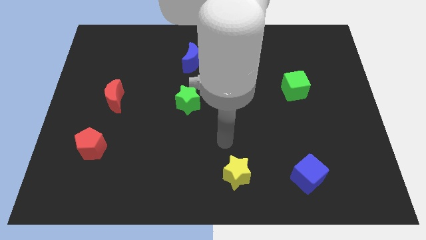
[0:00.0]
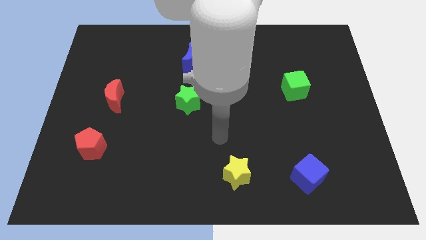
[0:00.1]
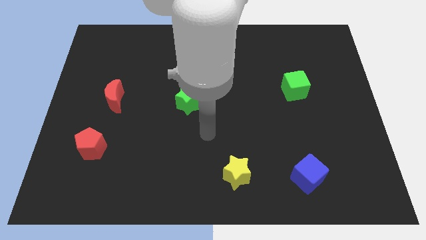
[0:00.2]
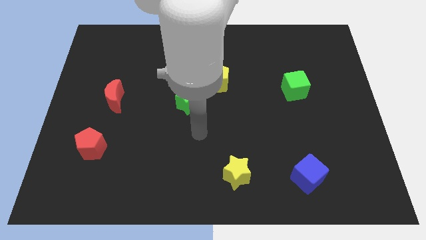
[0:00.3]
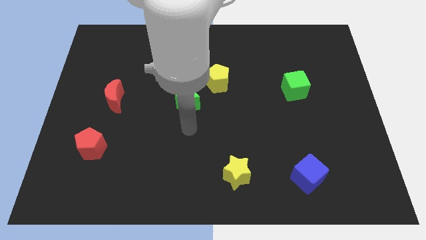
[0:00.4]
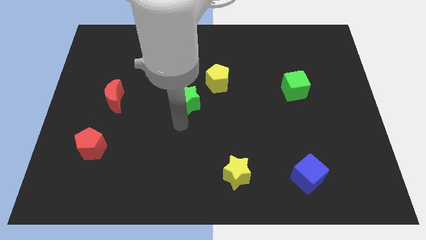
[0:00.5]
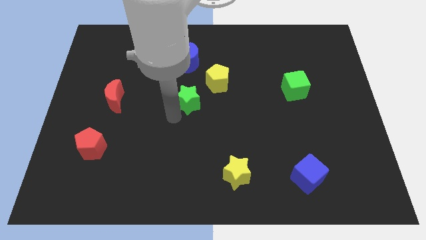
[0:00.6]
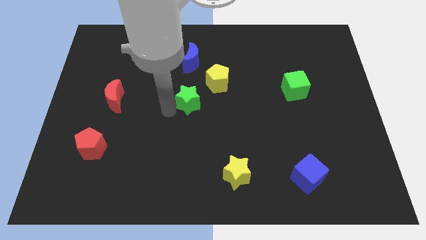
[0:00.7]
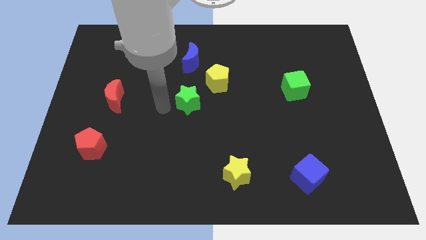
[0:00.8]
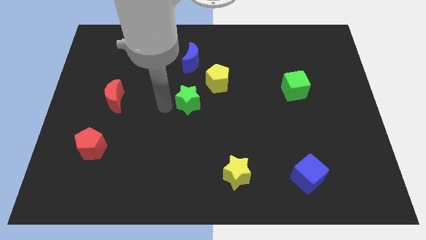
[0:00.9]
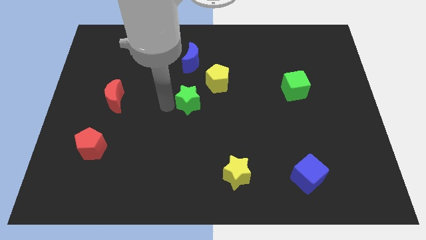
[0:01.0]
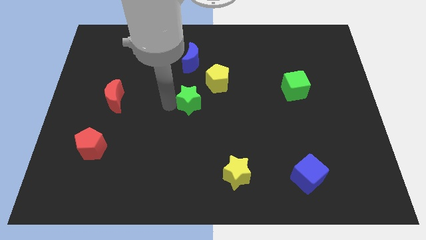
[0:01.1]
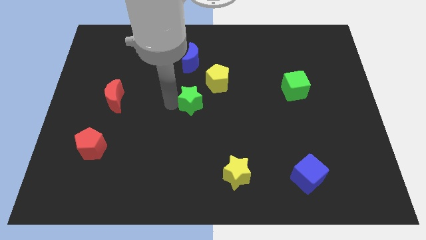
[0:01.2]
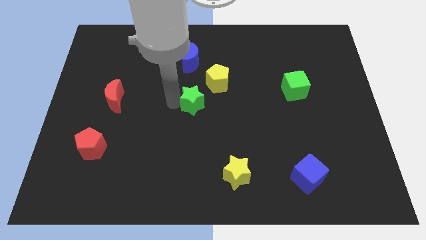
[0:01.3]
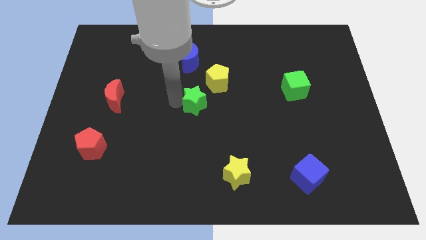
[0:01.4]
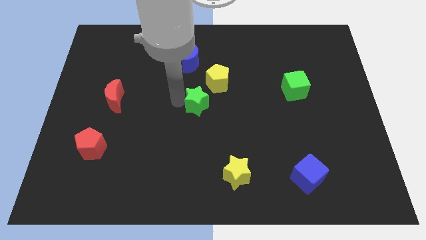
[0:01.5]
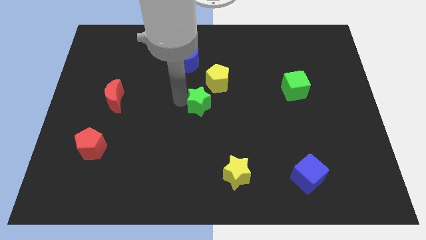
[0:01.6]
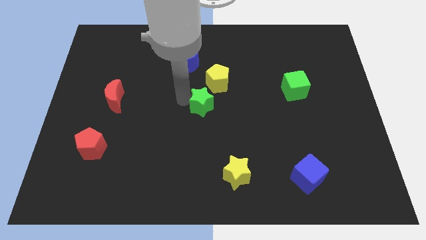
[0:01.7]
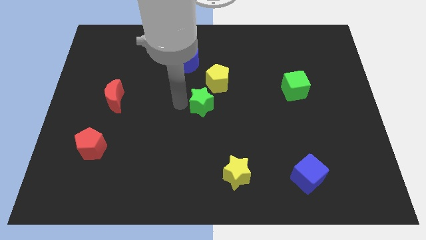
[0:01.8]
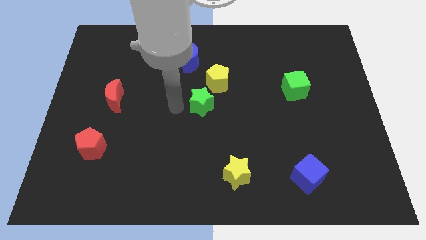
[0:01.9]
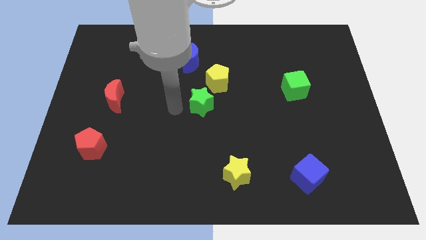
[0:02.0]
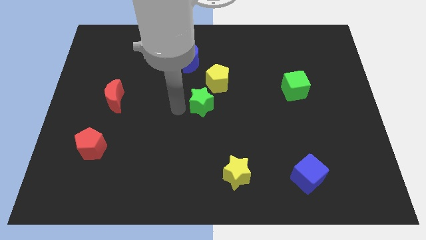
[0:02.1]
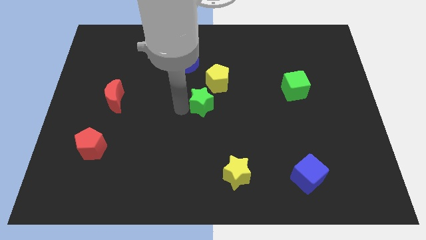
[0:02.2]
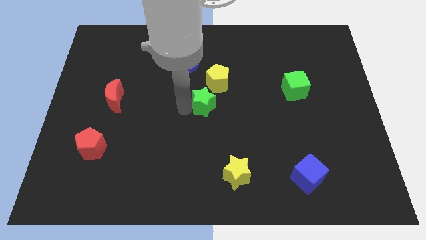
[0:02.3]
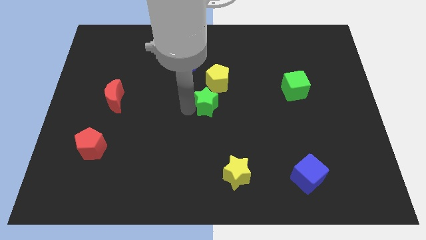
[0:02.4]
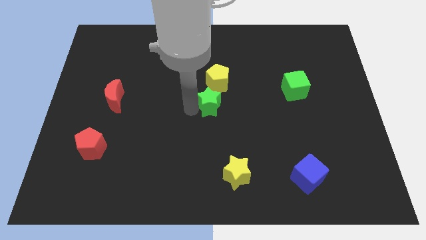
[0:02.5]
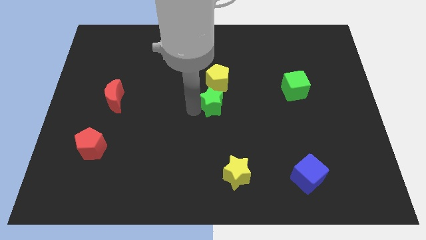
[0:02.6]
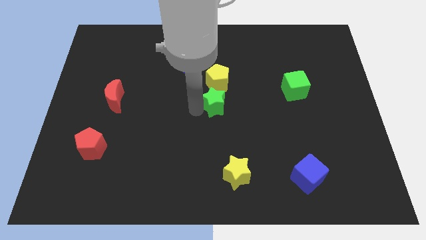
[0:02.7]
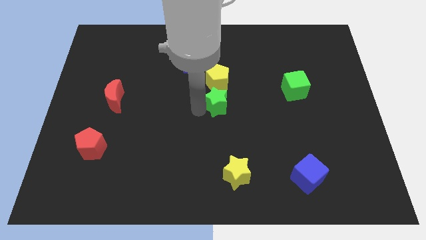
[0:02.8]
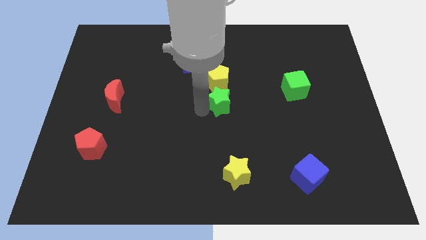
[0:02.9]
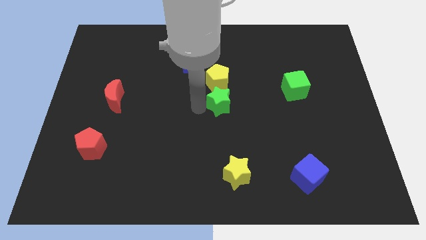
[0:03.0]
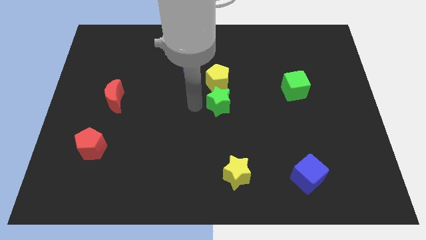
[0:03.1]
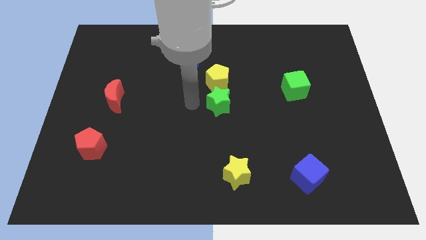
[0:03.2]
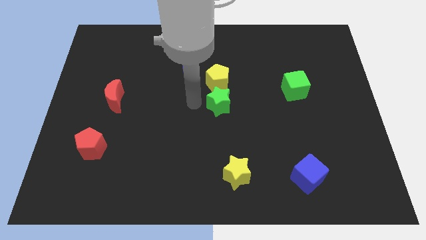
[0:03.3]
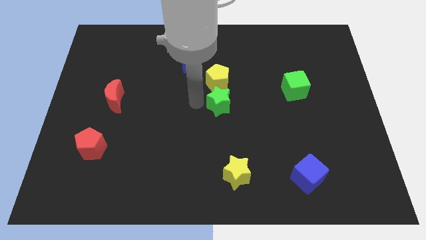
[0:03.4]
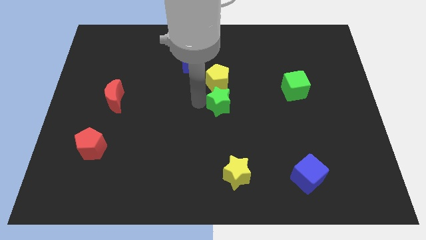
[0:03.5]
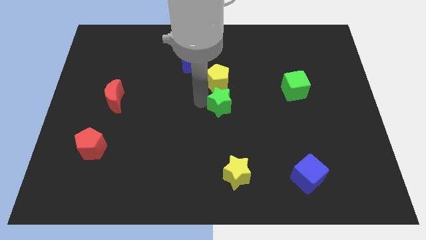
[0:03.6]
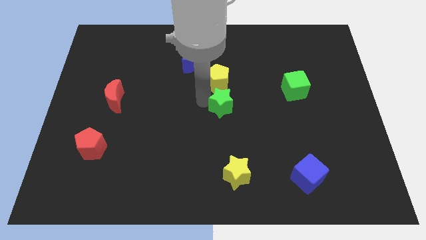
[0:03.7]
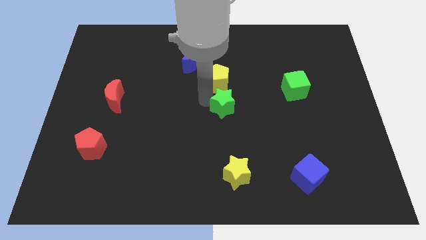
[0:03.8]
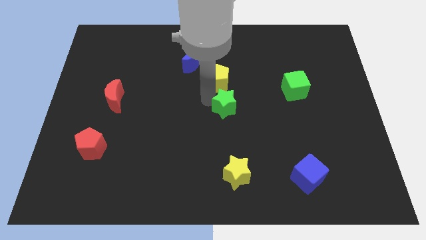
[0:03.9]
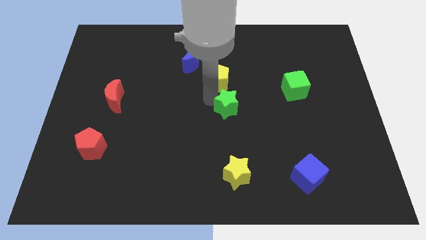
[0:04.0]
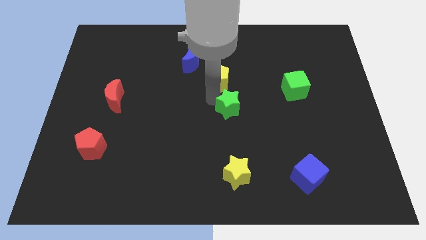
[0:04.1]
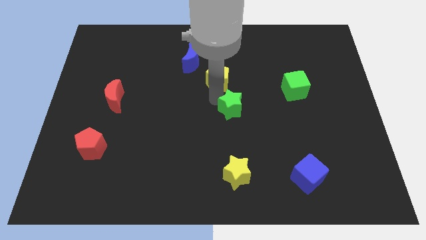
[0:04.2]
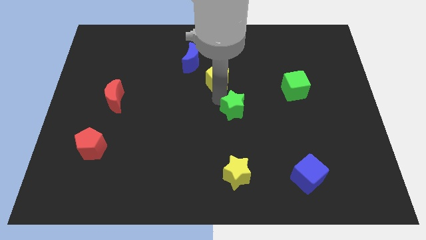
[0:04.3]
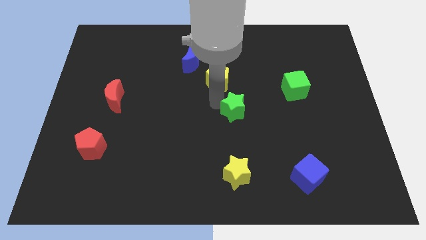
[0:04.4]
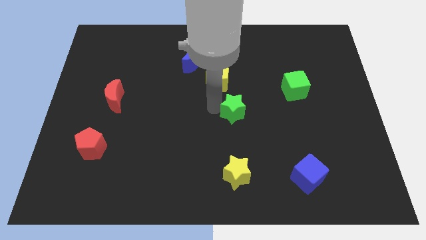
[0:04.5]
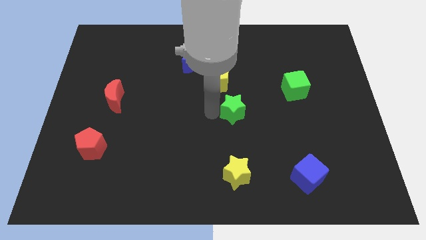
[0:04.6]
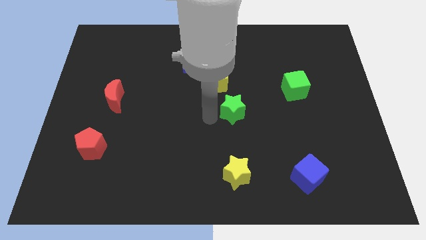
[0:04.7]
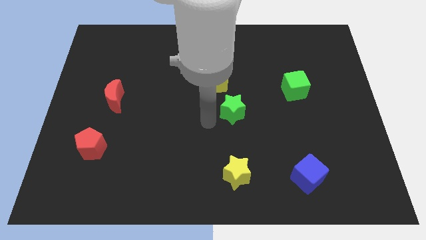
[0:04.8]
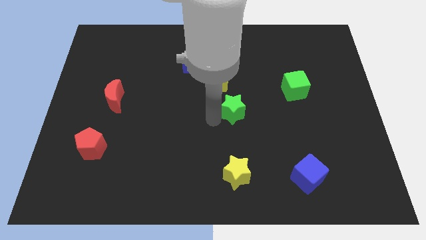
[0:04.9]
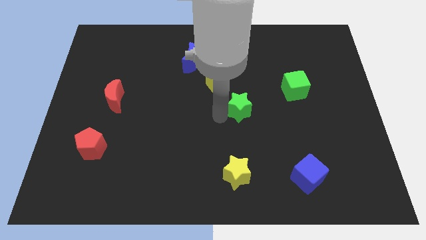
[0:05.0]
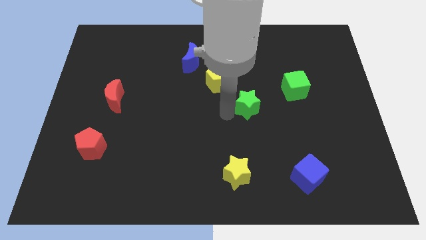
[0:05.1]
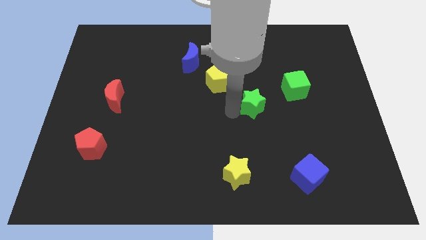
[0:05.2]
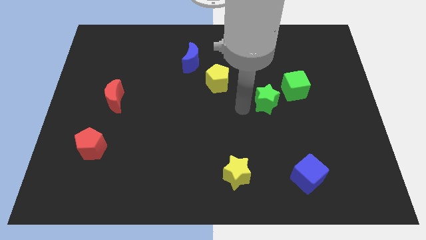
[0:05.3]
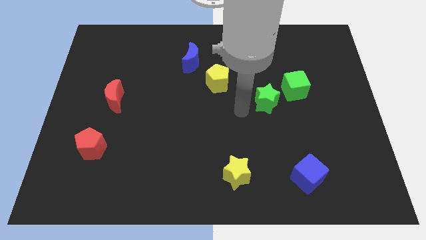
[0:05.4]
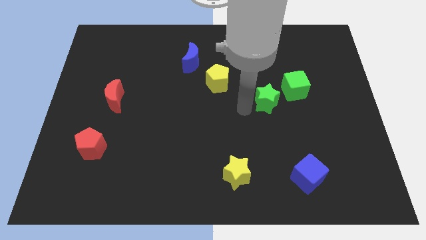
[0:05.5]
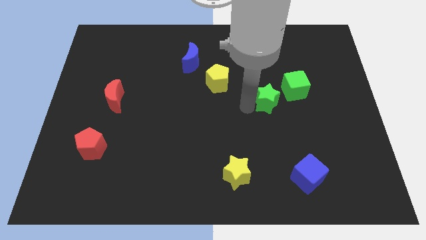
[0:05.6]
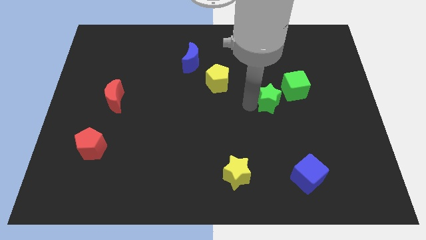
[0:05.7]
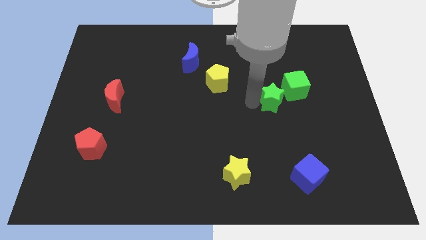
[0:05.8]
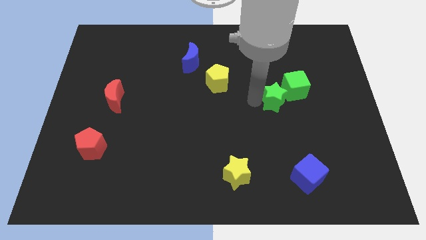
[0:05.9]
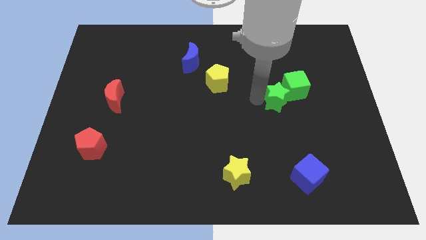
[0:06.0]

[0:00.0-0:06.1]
push the green star close to the green cube

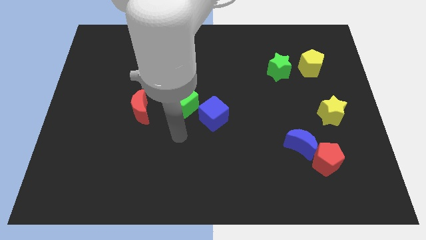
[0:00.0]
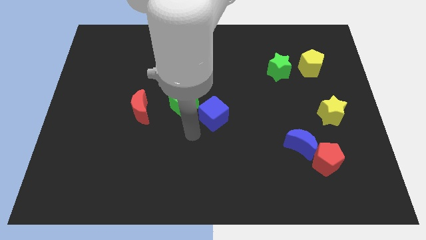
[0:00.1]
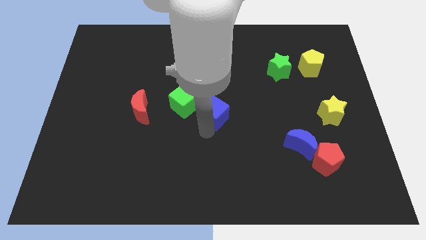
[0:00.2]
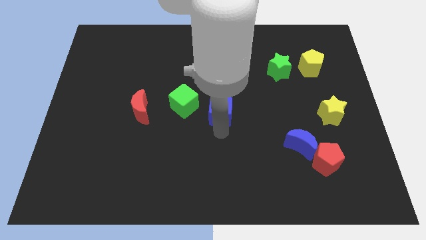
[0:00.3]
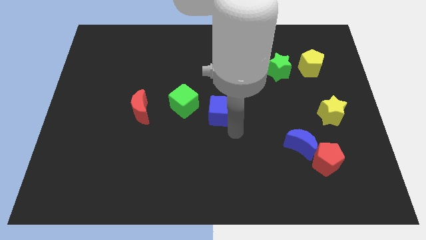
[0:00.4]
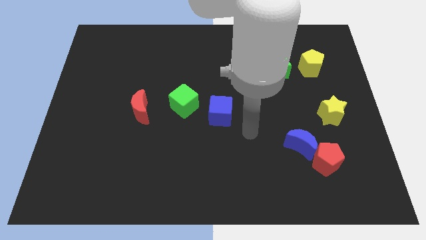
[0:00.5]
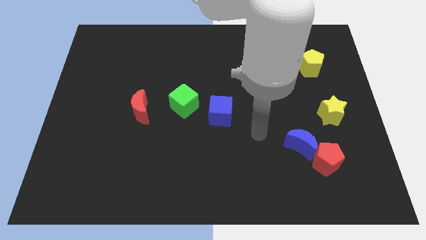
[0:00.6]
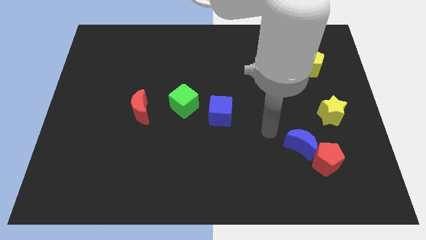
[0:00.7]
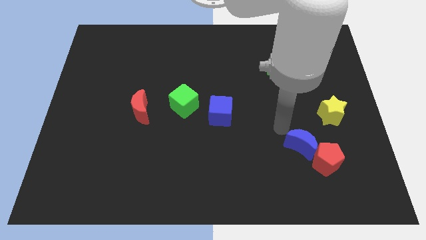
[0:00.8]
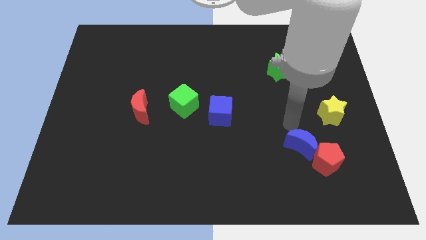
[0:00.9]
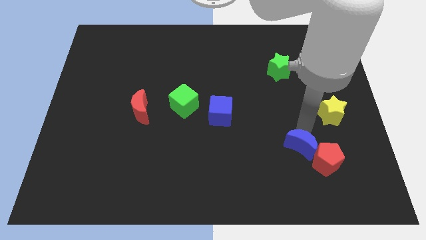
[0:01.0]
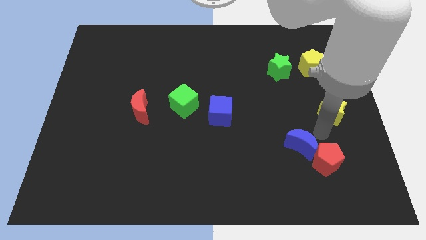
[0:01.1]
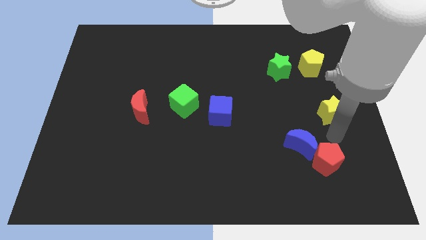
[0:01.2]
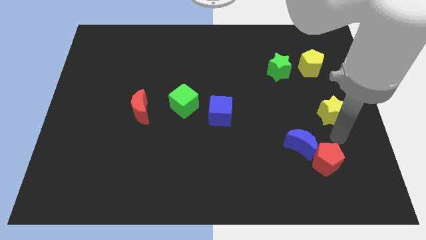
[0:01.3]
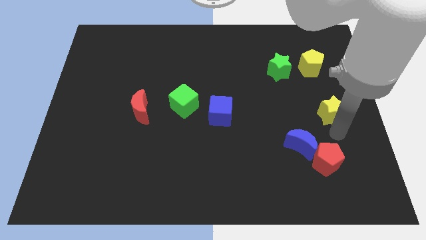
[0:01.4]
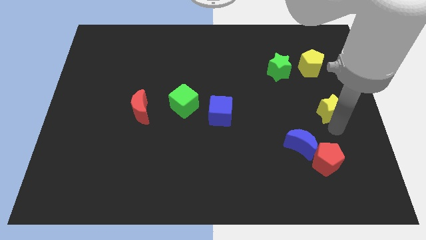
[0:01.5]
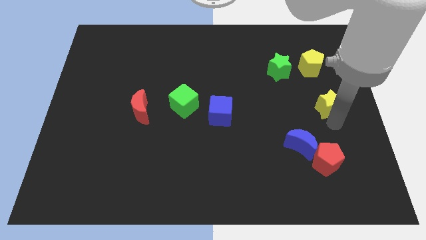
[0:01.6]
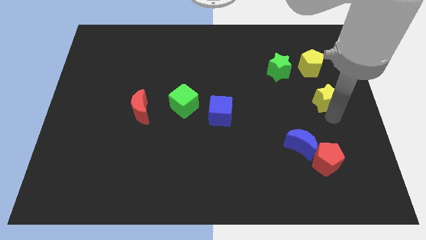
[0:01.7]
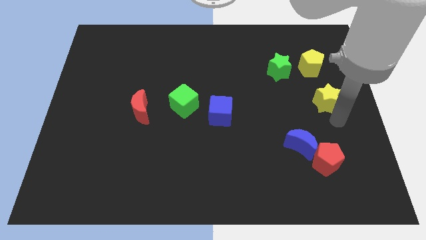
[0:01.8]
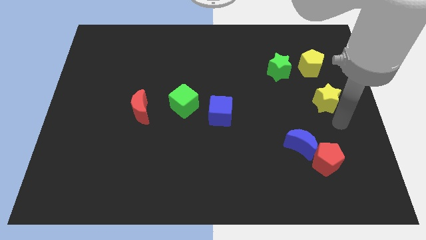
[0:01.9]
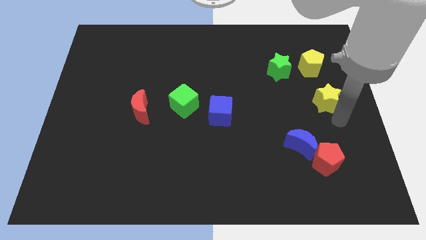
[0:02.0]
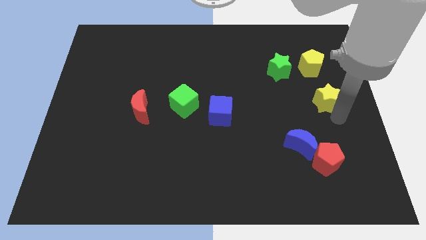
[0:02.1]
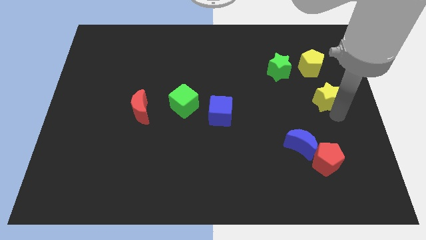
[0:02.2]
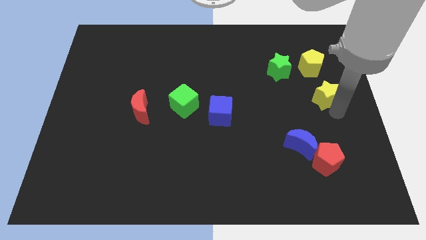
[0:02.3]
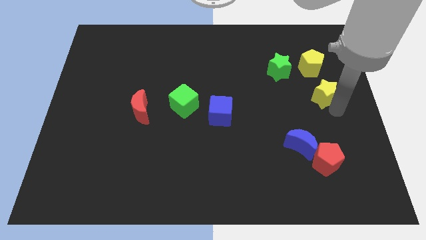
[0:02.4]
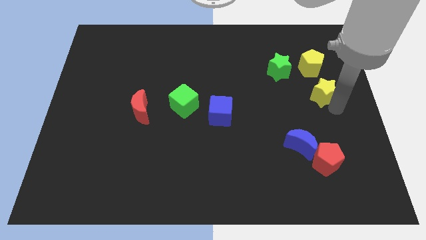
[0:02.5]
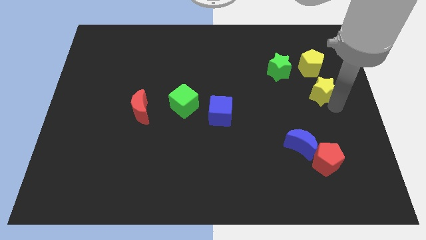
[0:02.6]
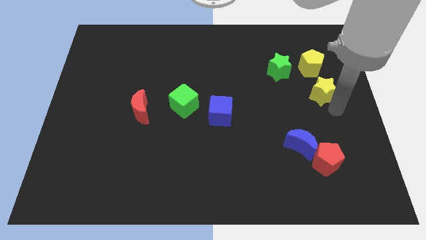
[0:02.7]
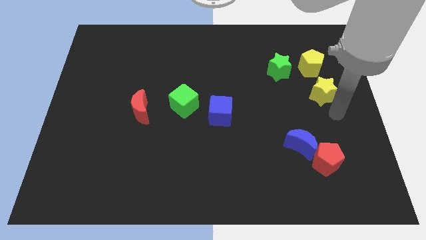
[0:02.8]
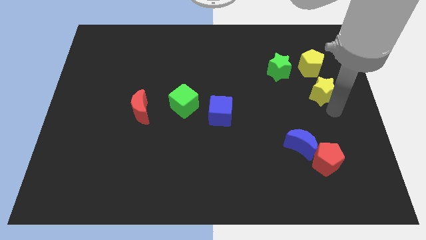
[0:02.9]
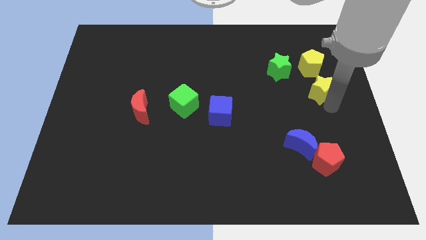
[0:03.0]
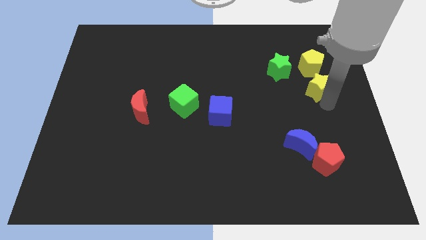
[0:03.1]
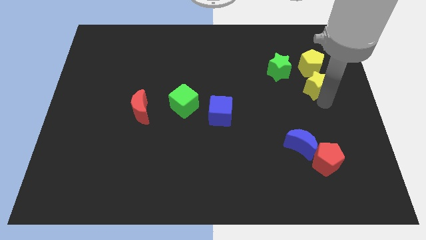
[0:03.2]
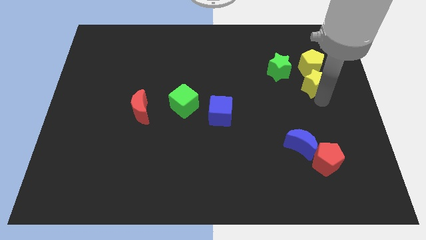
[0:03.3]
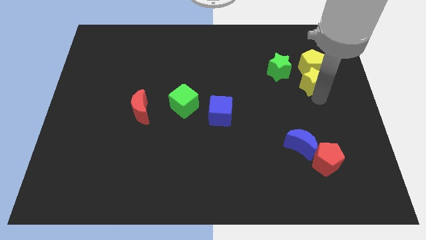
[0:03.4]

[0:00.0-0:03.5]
put the yellow star towards the yellow pentagon
